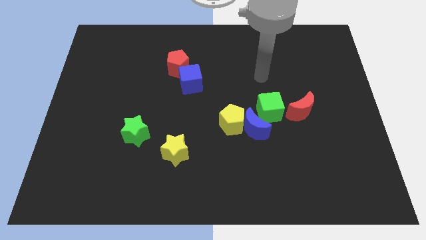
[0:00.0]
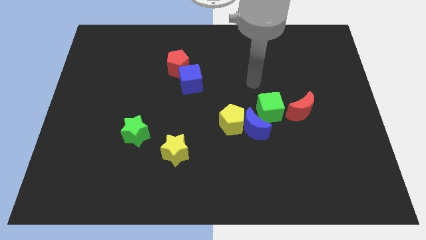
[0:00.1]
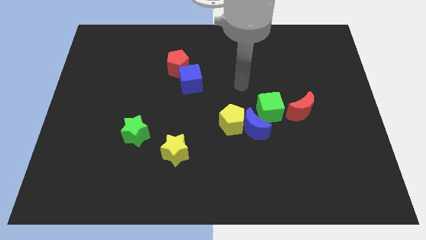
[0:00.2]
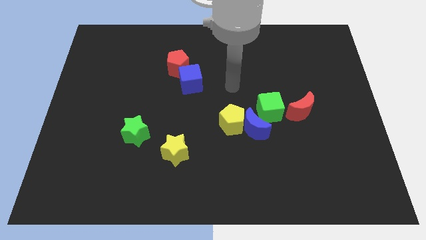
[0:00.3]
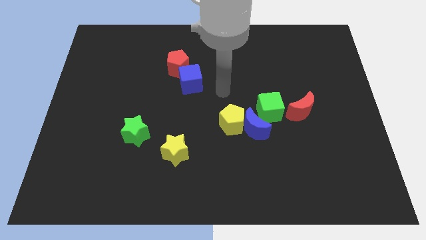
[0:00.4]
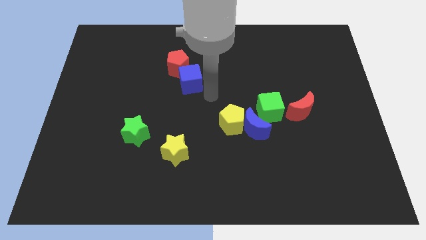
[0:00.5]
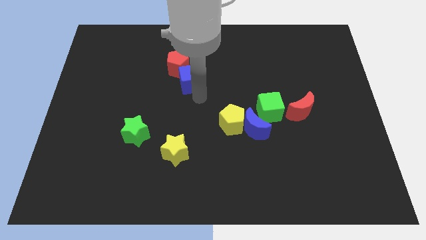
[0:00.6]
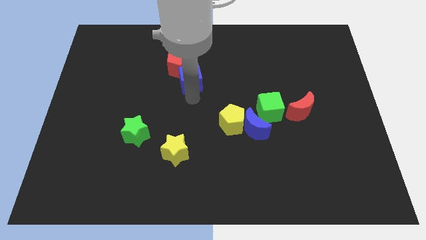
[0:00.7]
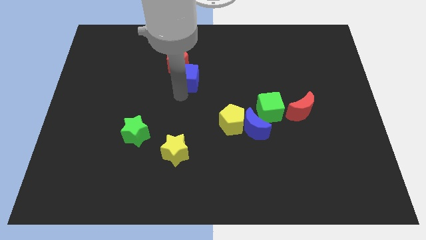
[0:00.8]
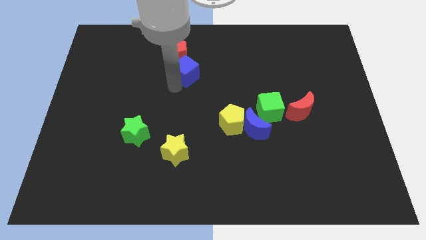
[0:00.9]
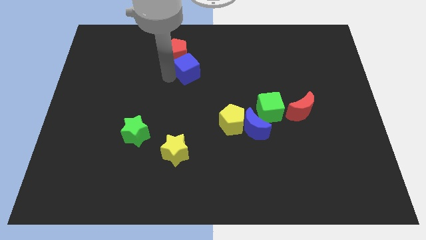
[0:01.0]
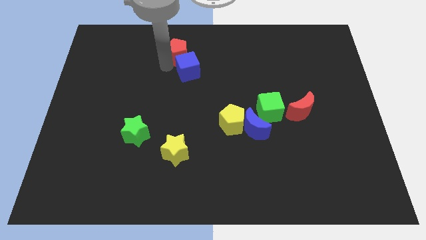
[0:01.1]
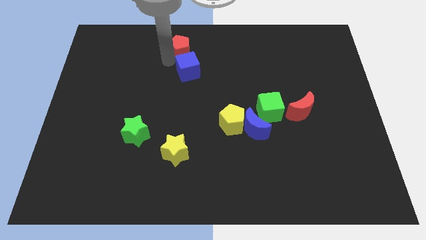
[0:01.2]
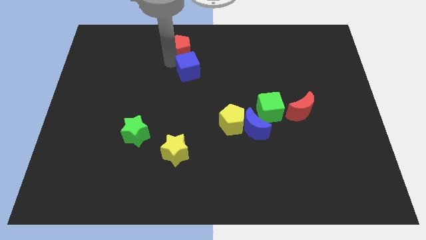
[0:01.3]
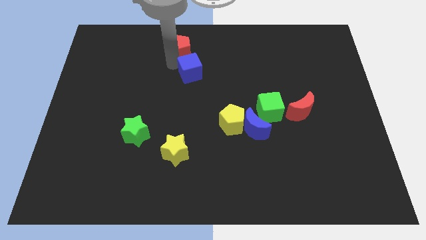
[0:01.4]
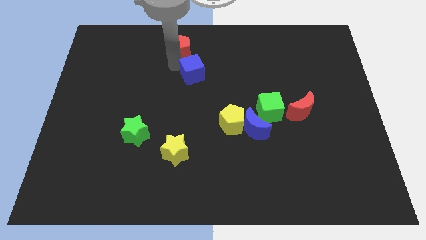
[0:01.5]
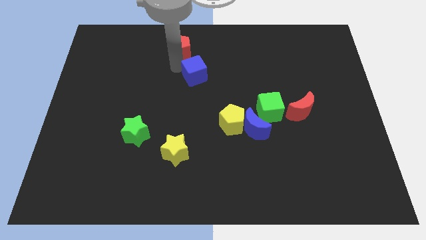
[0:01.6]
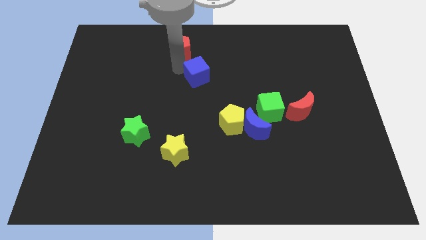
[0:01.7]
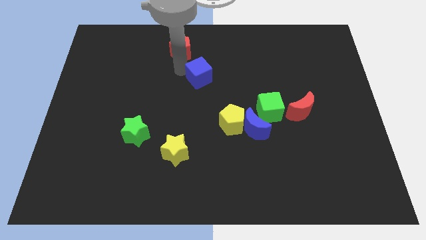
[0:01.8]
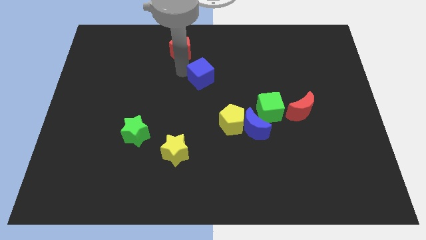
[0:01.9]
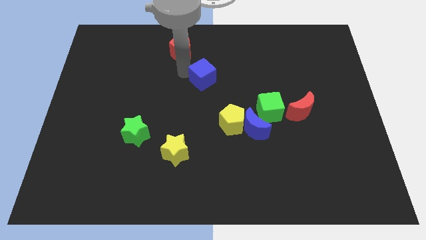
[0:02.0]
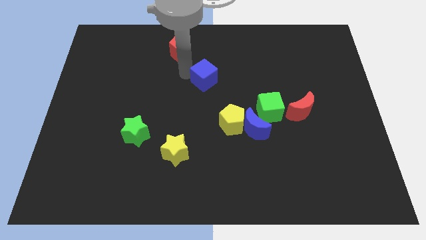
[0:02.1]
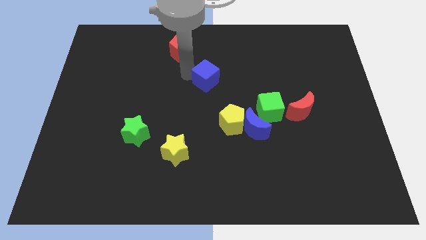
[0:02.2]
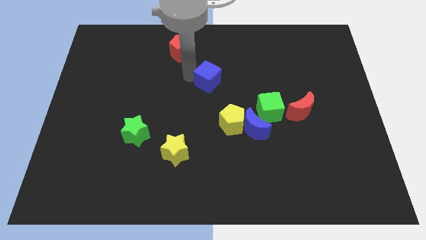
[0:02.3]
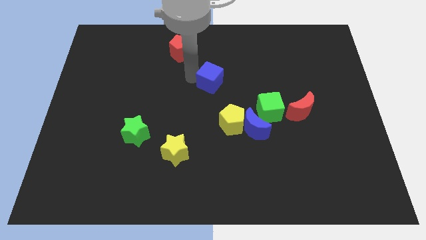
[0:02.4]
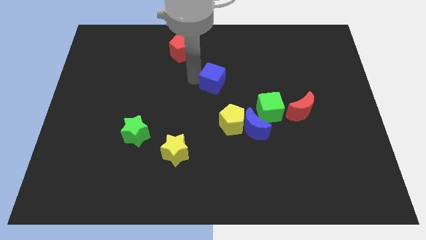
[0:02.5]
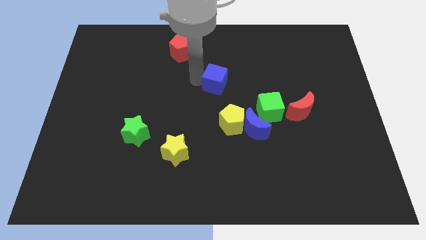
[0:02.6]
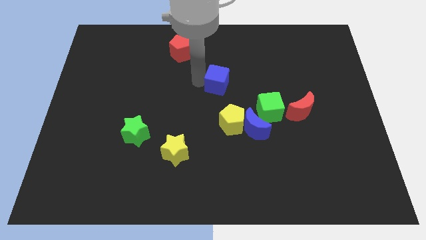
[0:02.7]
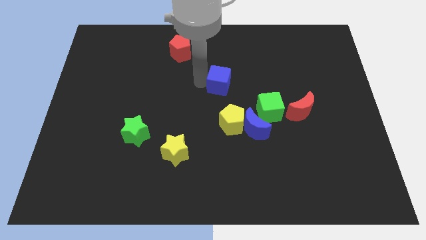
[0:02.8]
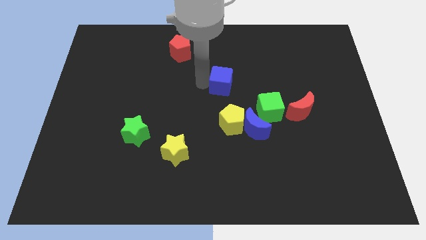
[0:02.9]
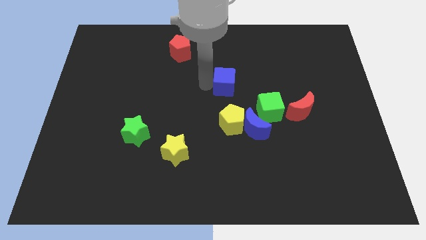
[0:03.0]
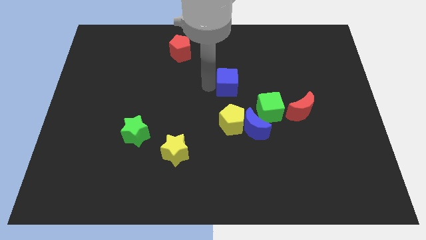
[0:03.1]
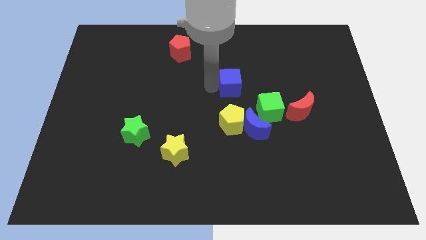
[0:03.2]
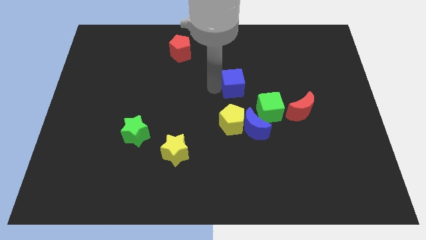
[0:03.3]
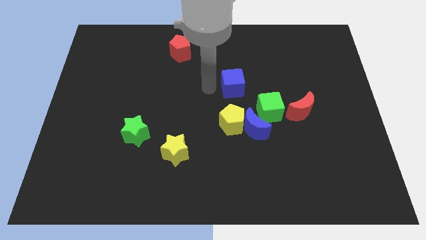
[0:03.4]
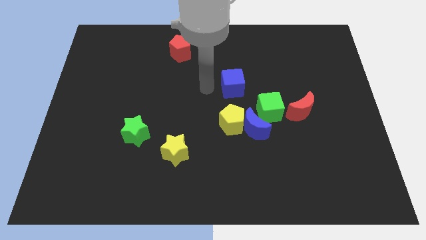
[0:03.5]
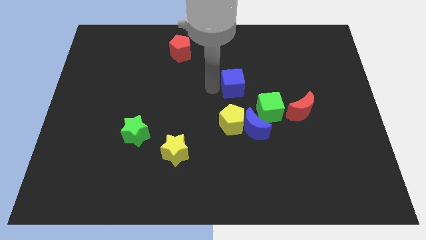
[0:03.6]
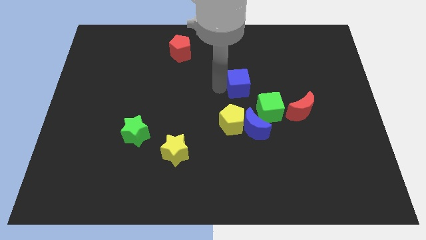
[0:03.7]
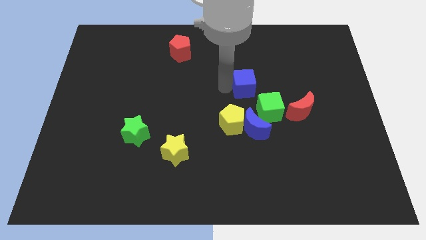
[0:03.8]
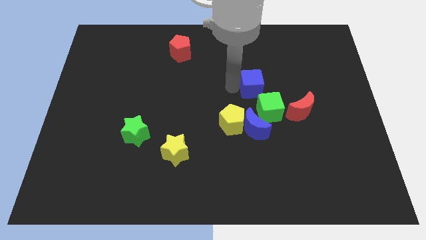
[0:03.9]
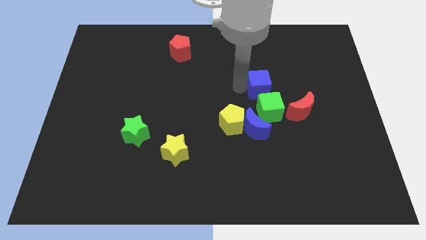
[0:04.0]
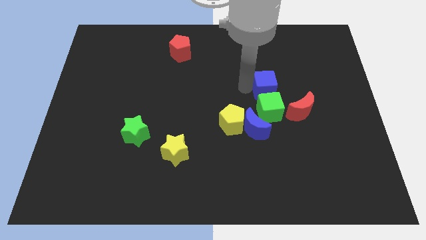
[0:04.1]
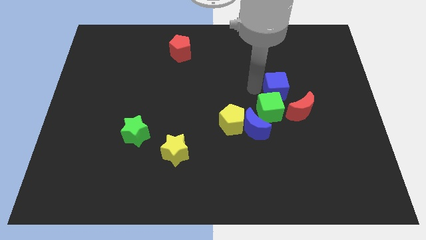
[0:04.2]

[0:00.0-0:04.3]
slide the blue cube right

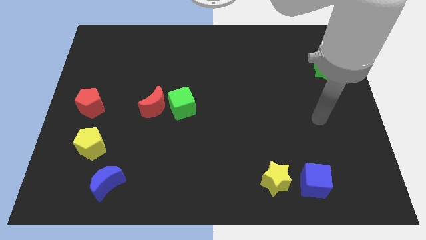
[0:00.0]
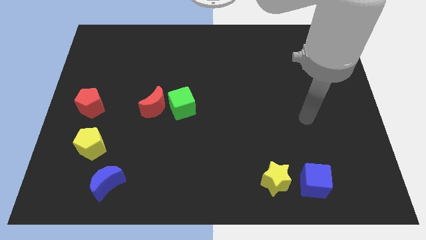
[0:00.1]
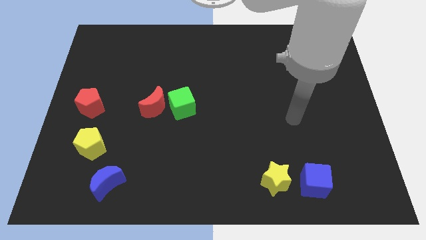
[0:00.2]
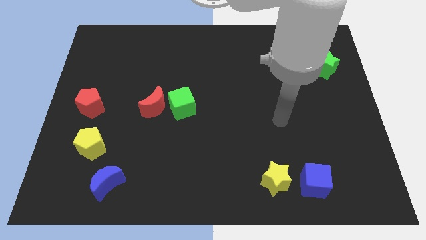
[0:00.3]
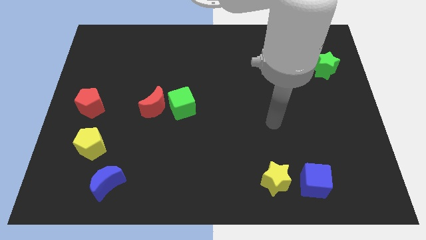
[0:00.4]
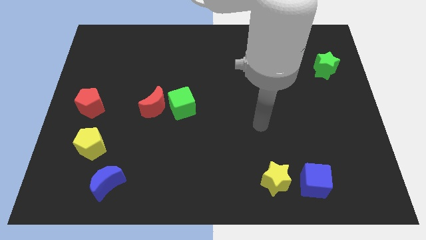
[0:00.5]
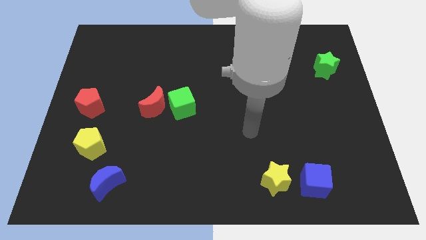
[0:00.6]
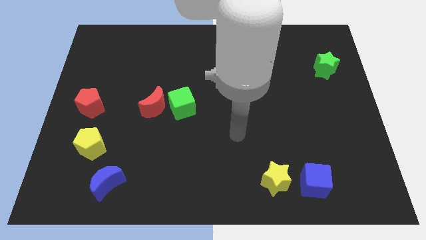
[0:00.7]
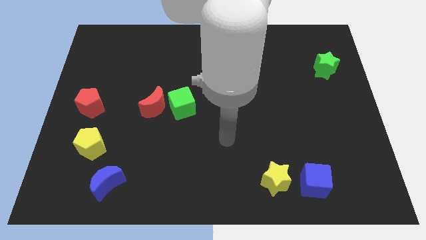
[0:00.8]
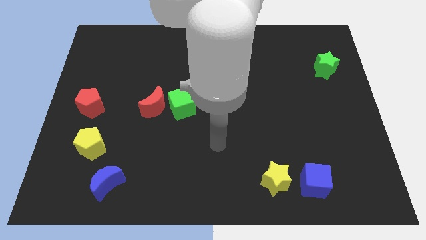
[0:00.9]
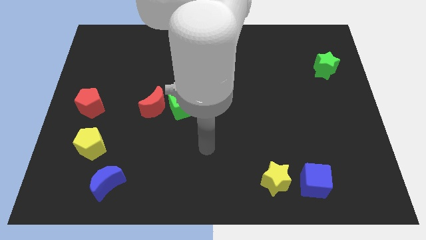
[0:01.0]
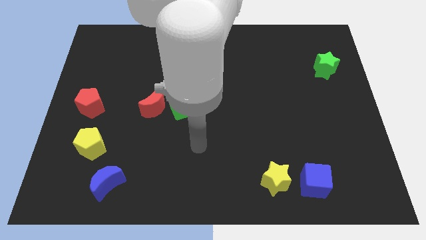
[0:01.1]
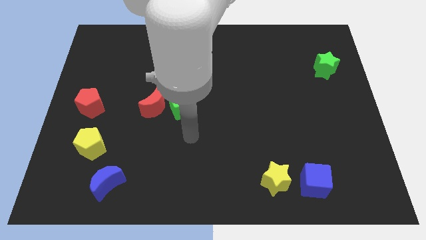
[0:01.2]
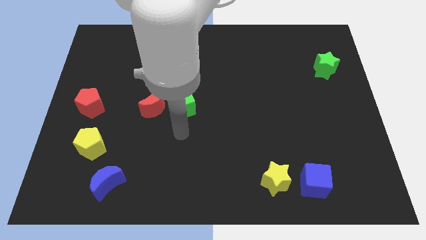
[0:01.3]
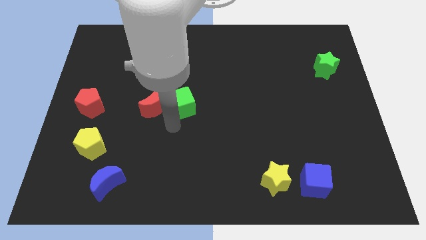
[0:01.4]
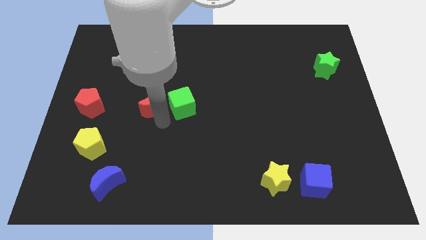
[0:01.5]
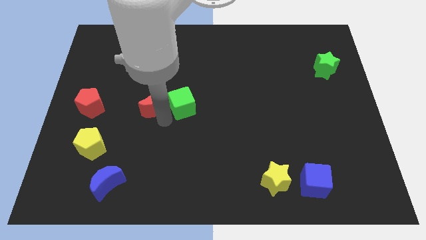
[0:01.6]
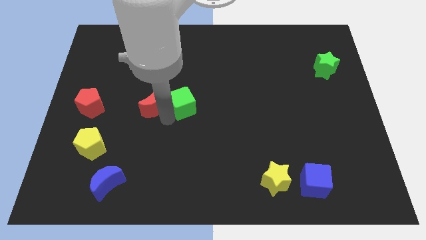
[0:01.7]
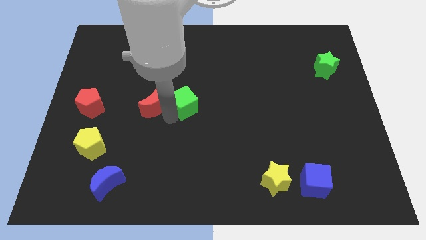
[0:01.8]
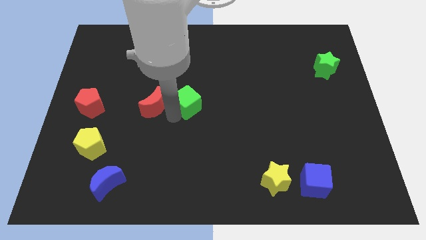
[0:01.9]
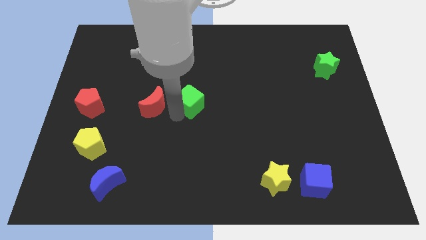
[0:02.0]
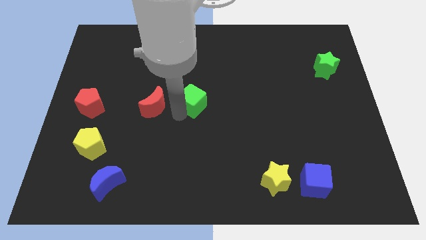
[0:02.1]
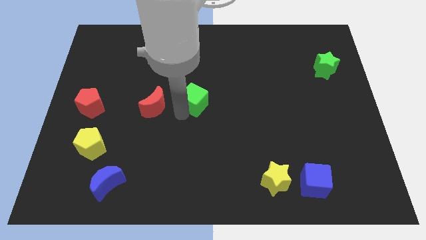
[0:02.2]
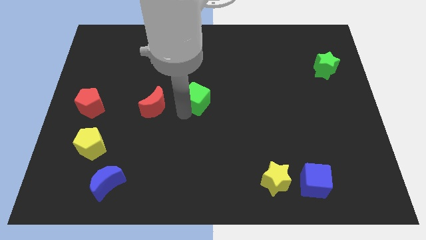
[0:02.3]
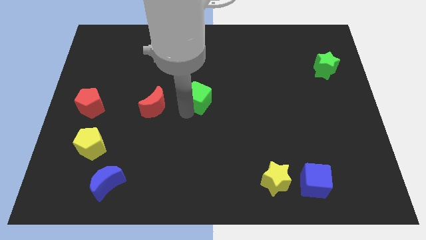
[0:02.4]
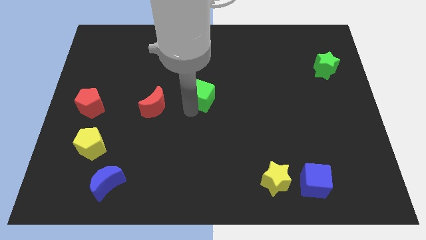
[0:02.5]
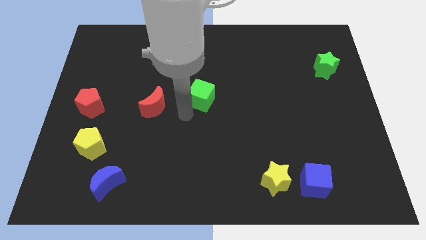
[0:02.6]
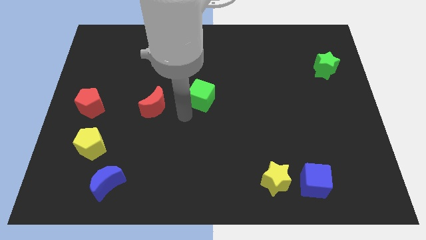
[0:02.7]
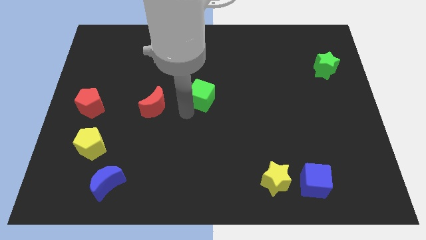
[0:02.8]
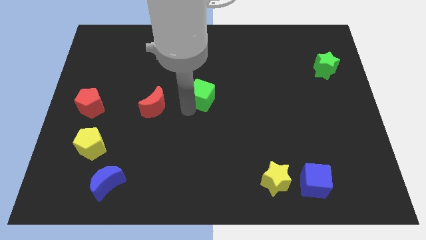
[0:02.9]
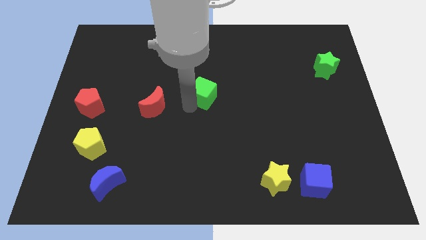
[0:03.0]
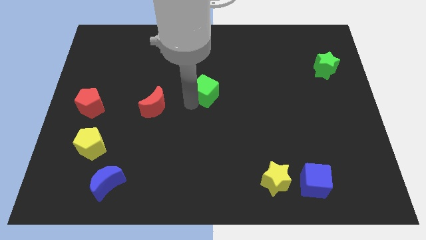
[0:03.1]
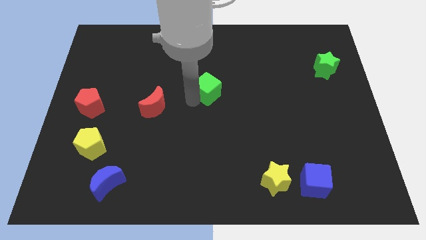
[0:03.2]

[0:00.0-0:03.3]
slightly push the green cube up and to the right
